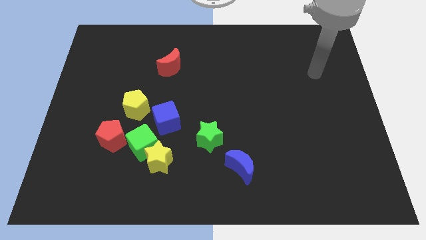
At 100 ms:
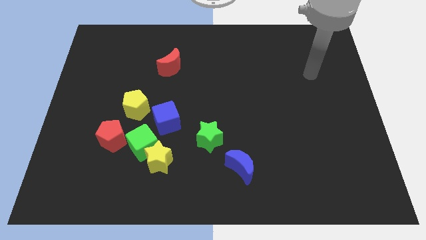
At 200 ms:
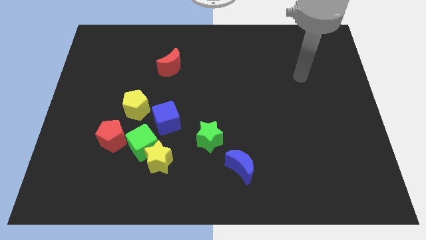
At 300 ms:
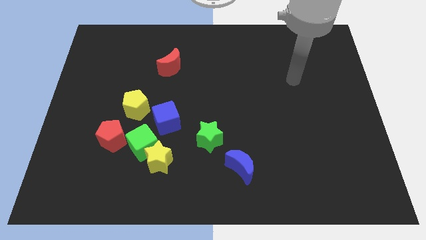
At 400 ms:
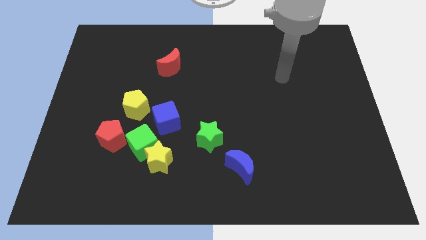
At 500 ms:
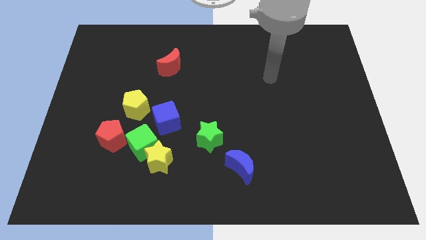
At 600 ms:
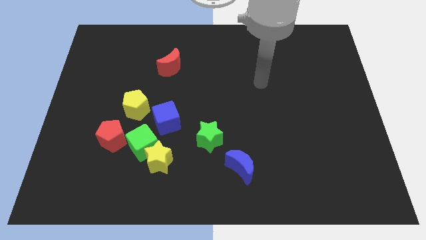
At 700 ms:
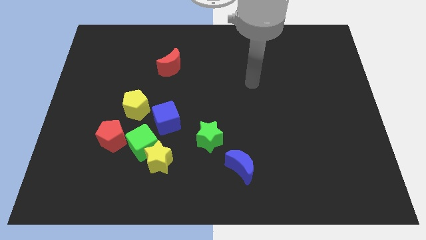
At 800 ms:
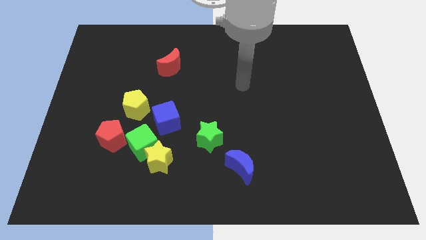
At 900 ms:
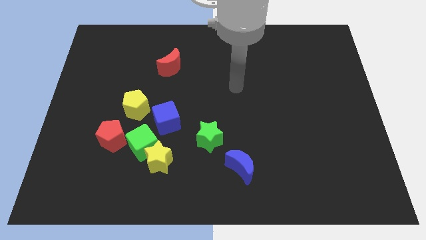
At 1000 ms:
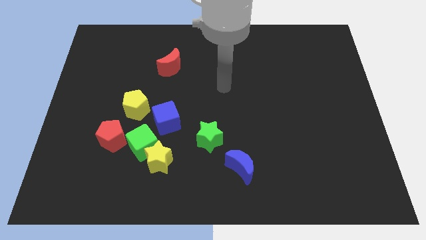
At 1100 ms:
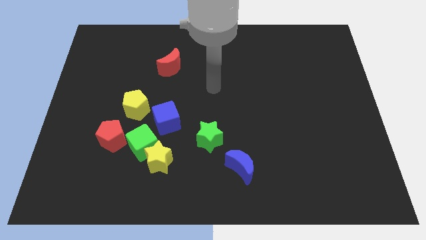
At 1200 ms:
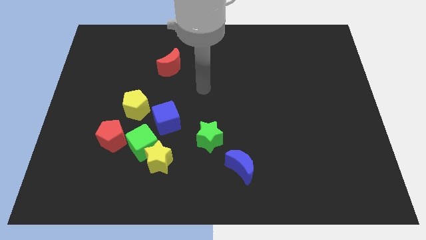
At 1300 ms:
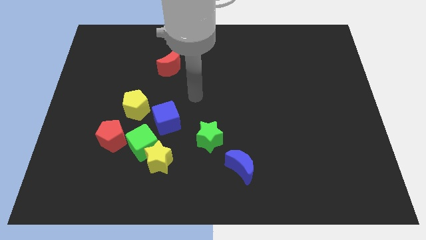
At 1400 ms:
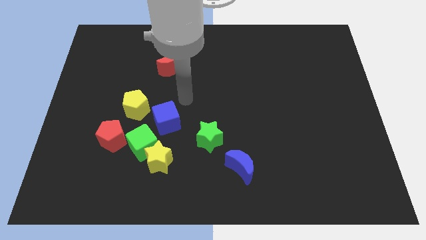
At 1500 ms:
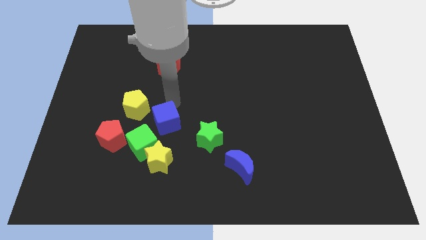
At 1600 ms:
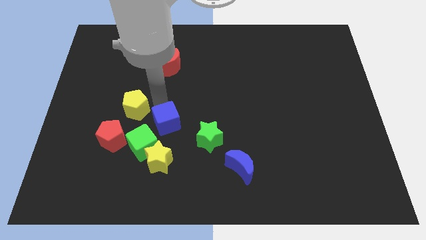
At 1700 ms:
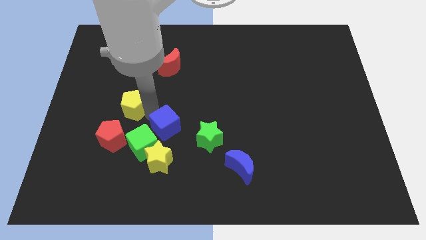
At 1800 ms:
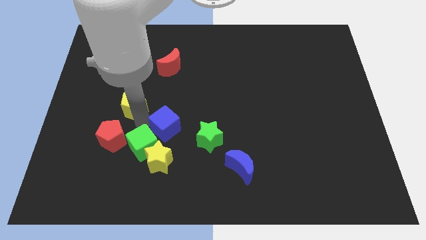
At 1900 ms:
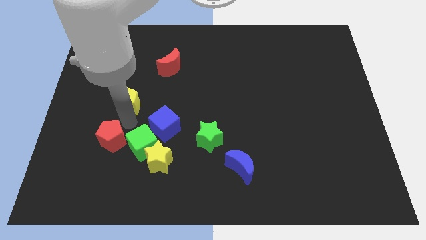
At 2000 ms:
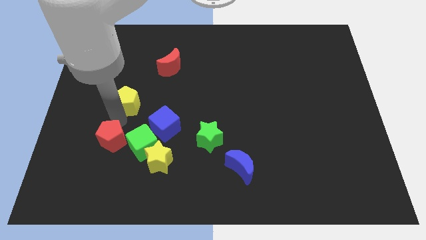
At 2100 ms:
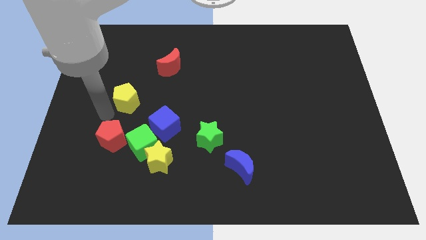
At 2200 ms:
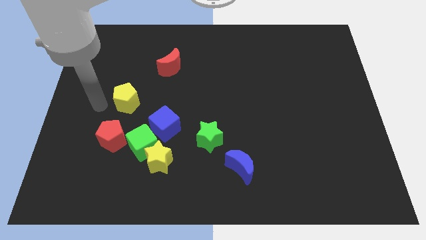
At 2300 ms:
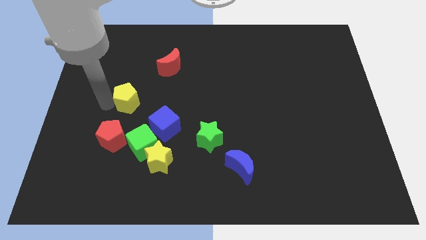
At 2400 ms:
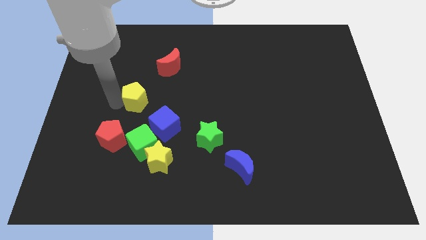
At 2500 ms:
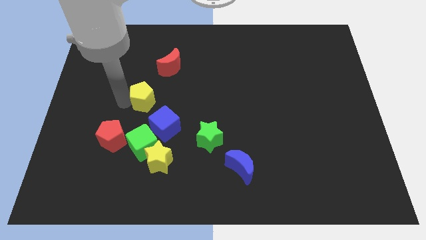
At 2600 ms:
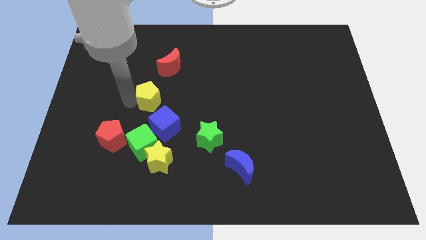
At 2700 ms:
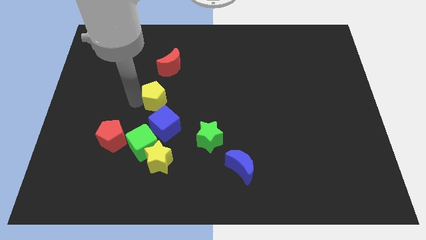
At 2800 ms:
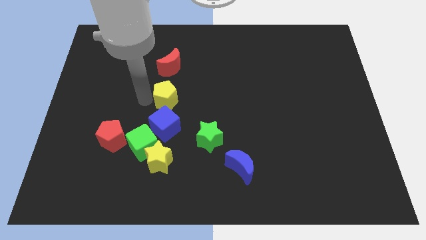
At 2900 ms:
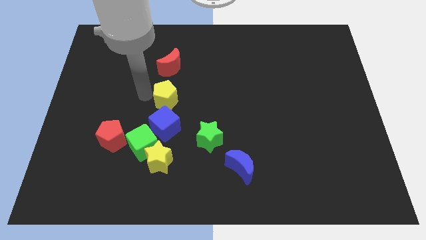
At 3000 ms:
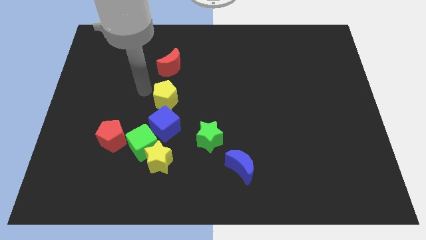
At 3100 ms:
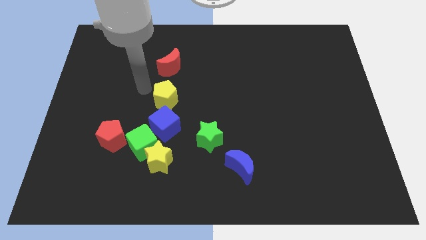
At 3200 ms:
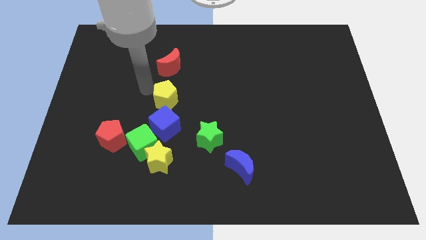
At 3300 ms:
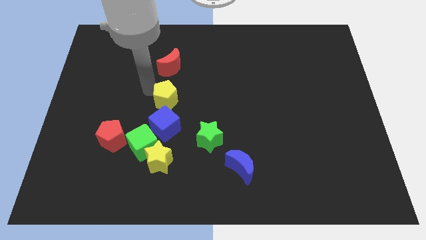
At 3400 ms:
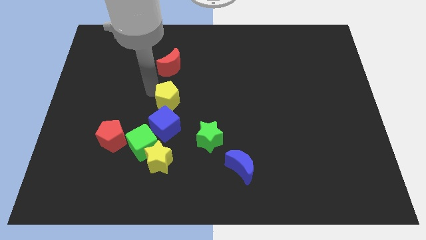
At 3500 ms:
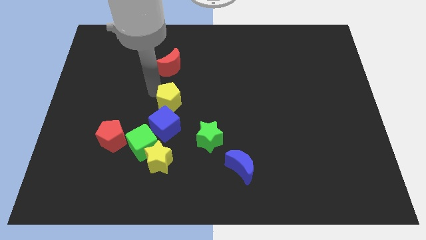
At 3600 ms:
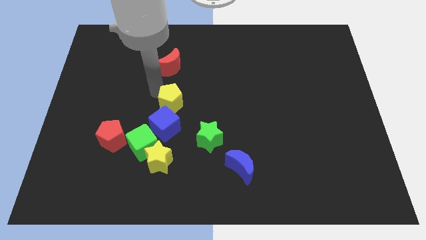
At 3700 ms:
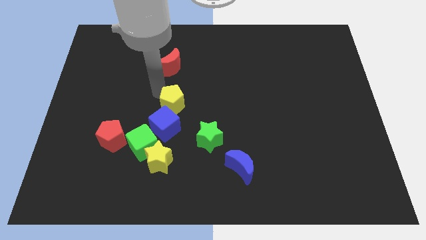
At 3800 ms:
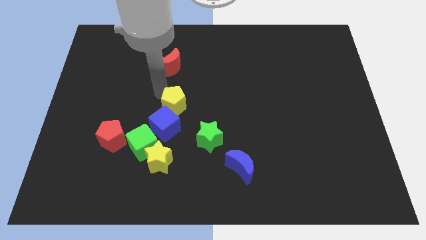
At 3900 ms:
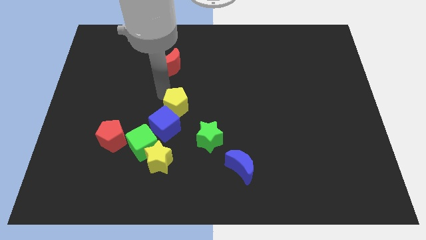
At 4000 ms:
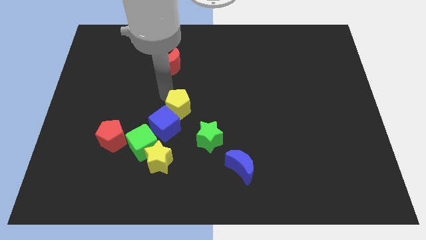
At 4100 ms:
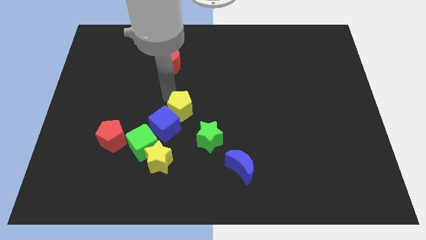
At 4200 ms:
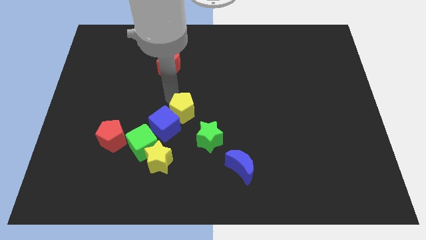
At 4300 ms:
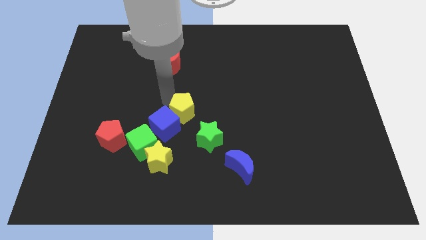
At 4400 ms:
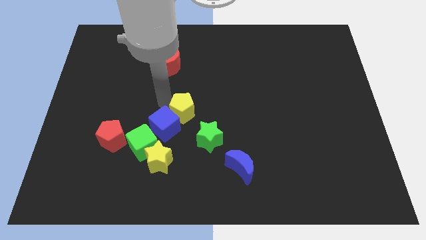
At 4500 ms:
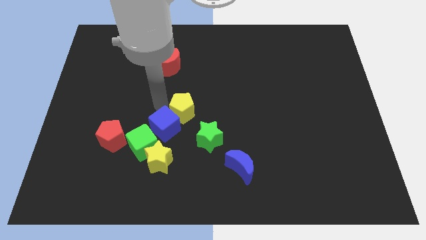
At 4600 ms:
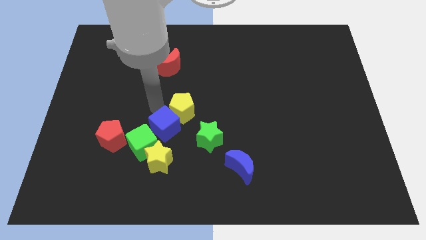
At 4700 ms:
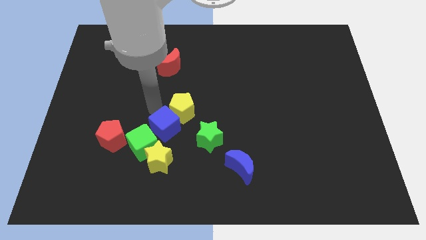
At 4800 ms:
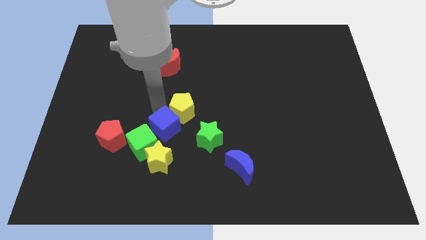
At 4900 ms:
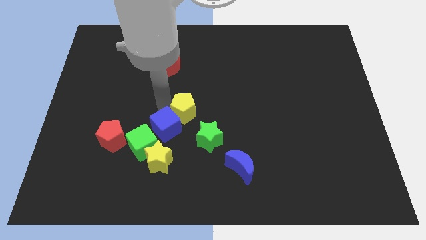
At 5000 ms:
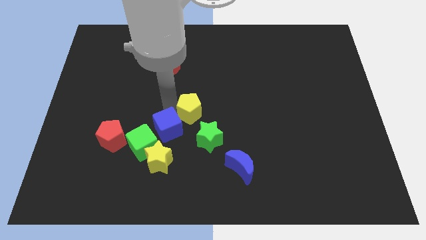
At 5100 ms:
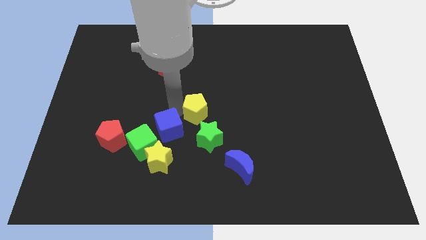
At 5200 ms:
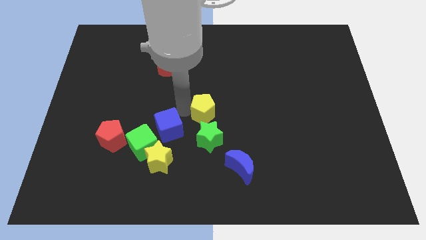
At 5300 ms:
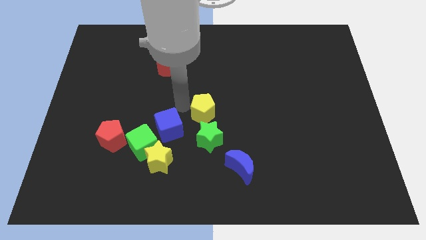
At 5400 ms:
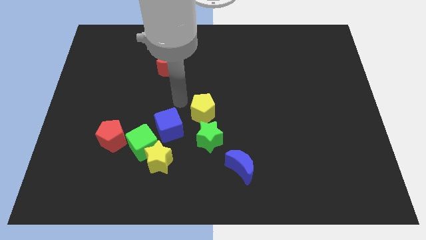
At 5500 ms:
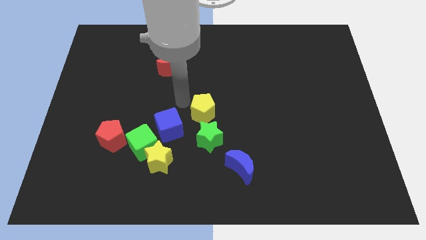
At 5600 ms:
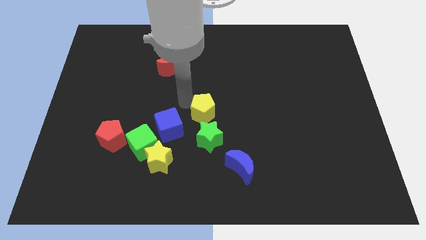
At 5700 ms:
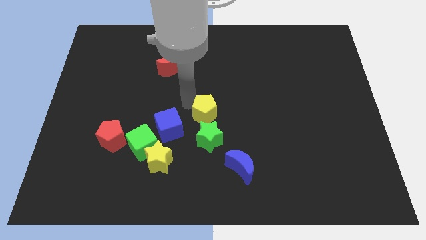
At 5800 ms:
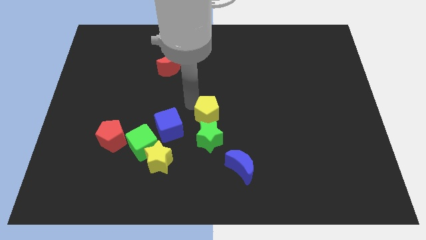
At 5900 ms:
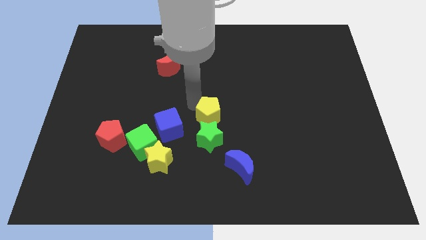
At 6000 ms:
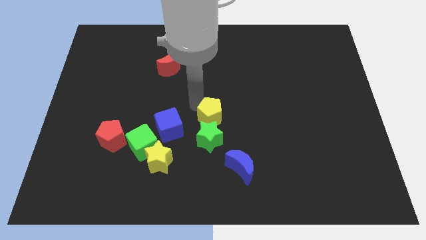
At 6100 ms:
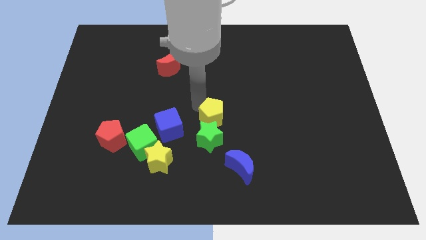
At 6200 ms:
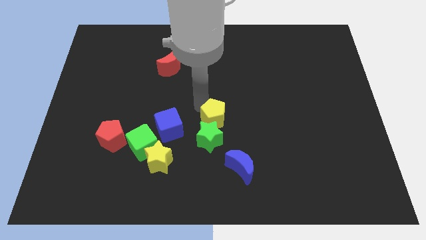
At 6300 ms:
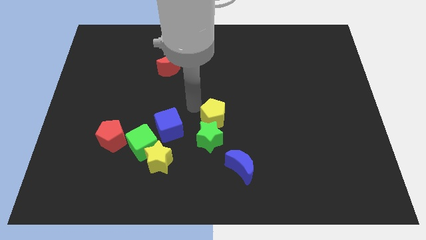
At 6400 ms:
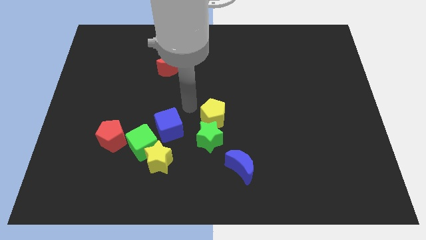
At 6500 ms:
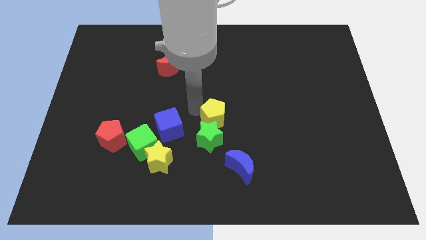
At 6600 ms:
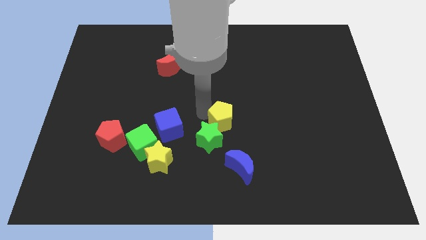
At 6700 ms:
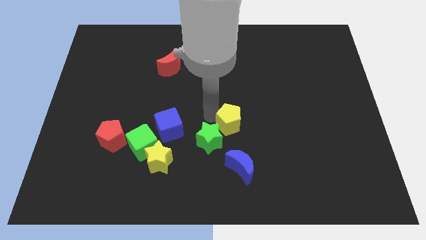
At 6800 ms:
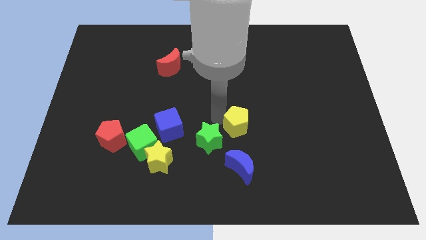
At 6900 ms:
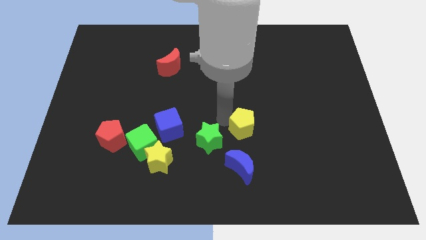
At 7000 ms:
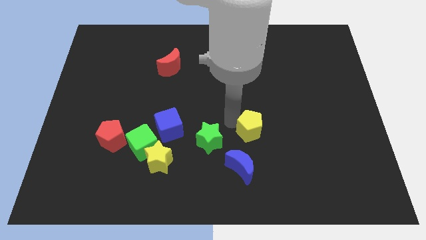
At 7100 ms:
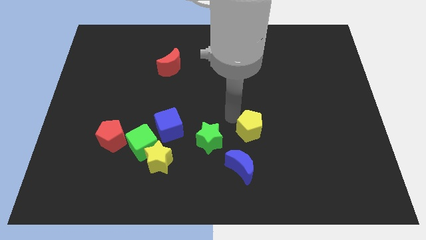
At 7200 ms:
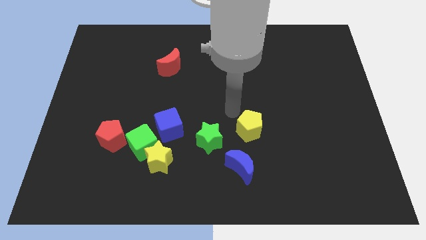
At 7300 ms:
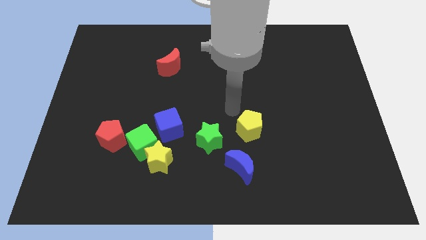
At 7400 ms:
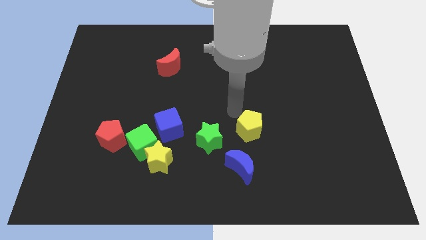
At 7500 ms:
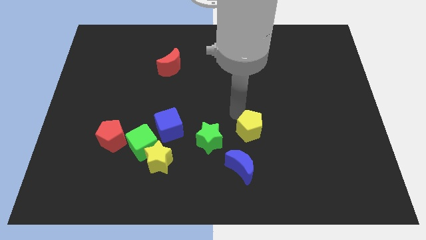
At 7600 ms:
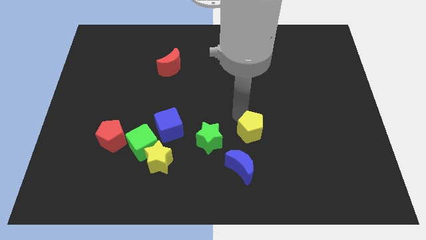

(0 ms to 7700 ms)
slide the yellow pentagon to the top right side of the blue moon
